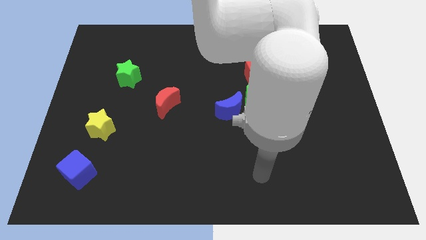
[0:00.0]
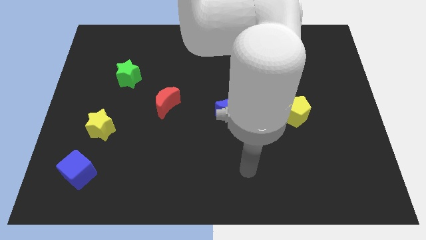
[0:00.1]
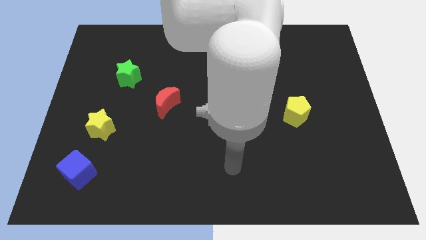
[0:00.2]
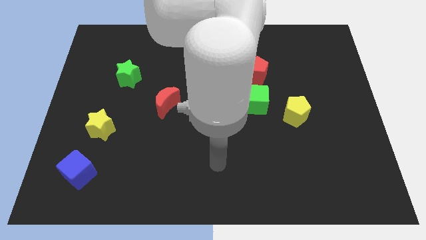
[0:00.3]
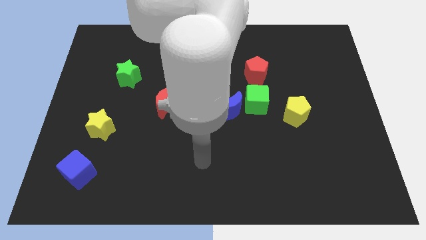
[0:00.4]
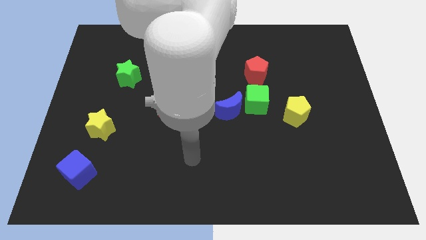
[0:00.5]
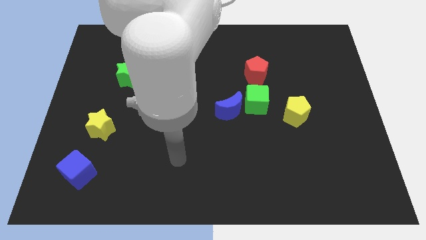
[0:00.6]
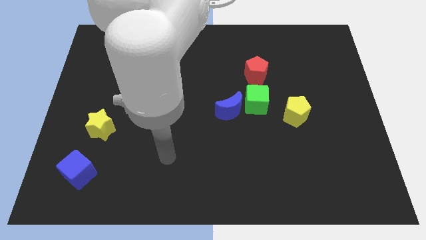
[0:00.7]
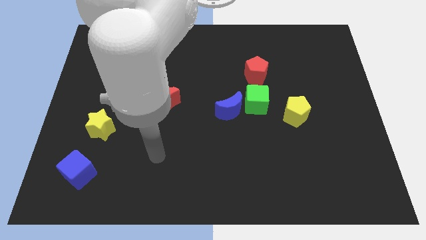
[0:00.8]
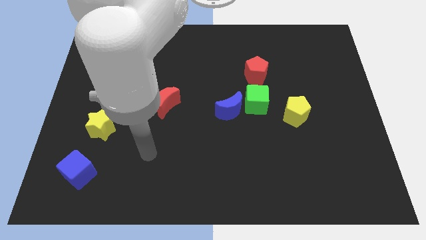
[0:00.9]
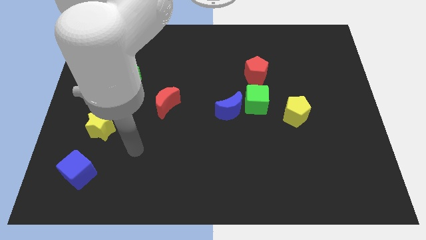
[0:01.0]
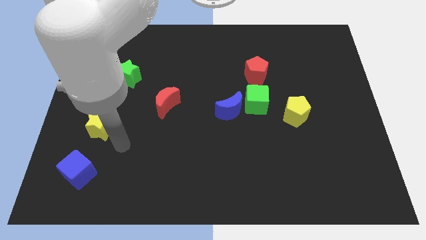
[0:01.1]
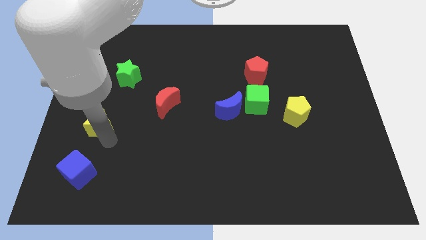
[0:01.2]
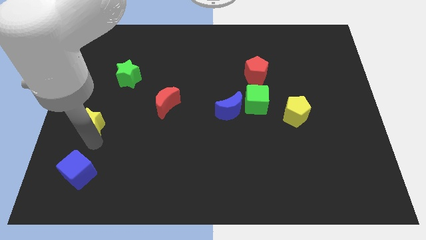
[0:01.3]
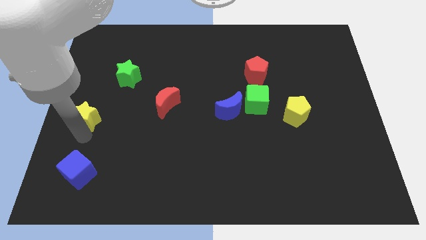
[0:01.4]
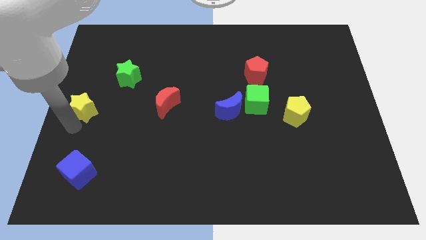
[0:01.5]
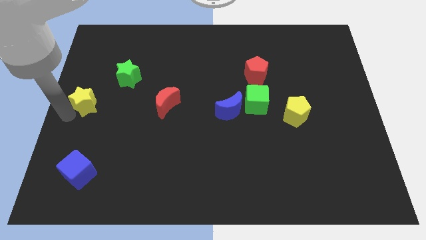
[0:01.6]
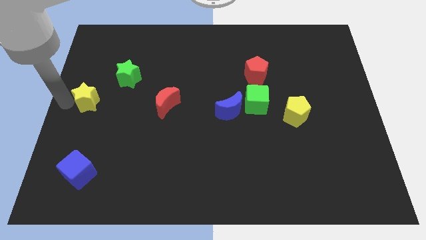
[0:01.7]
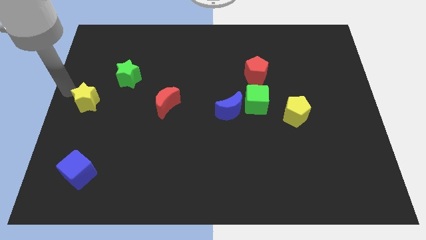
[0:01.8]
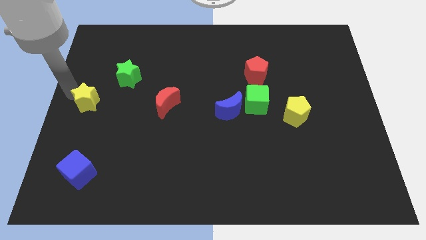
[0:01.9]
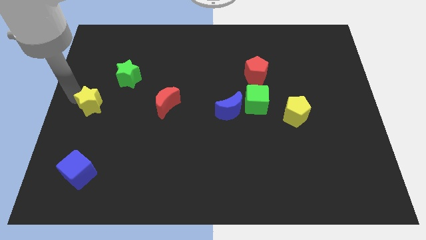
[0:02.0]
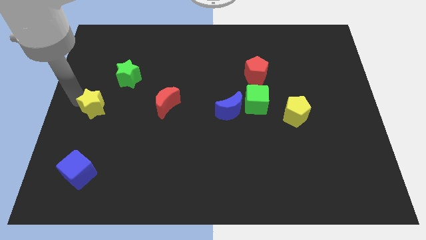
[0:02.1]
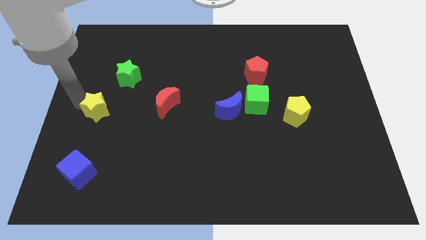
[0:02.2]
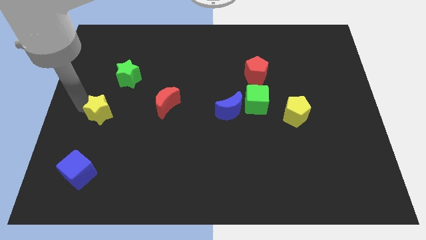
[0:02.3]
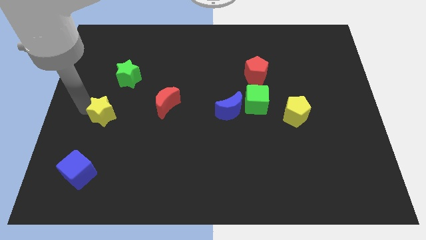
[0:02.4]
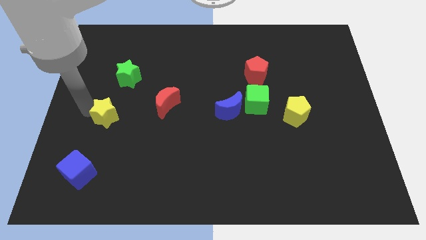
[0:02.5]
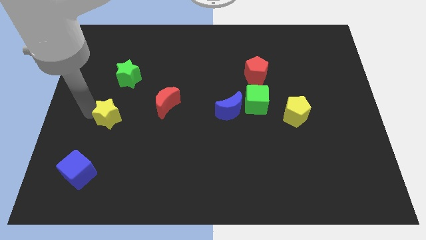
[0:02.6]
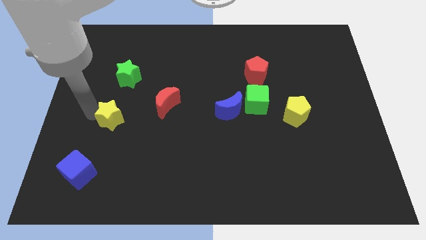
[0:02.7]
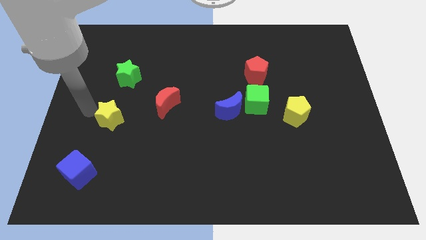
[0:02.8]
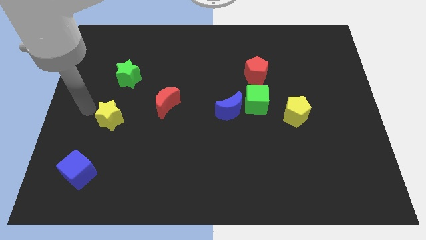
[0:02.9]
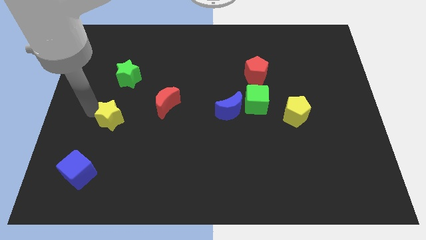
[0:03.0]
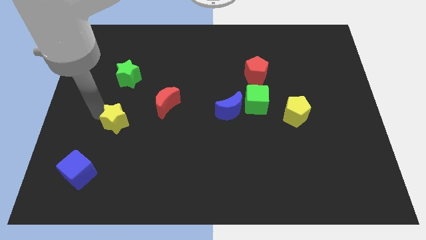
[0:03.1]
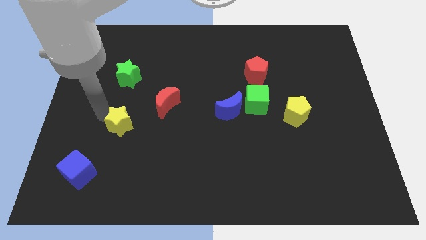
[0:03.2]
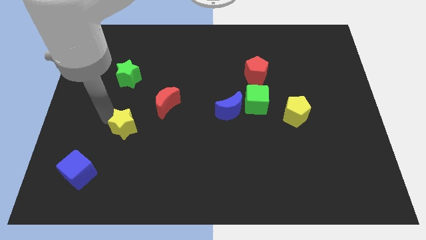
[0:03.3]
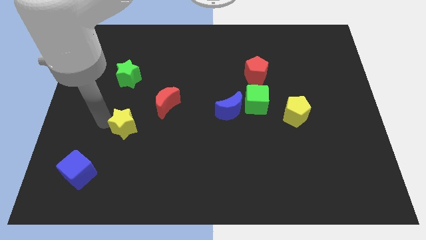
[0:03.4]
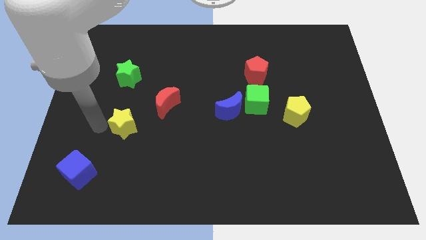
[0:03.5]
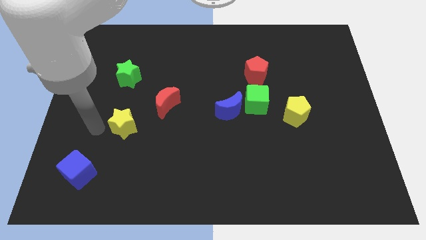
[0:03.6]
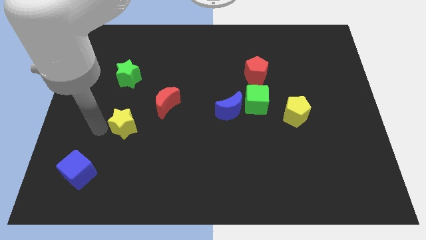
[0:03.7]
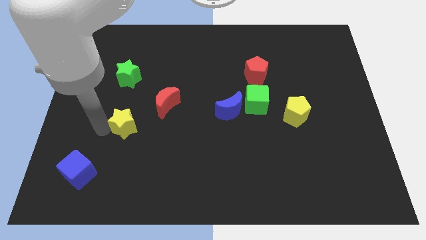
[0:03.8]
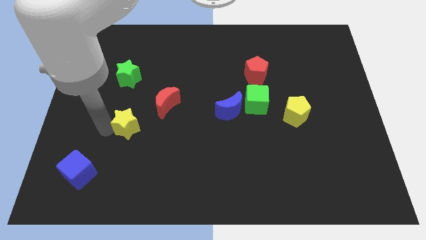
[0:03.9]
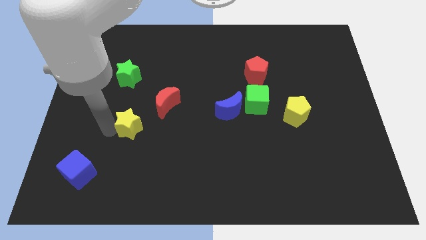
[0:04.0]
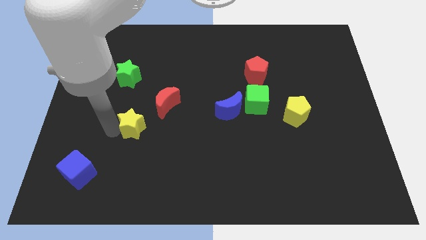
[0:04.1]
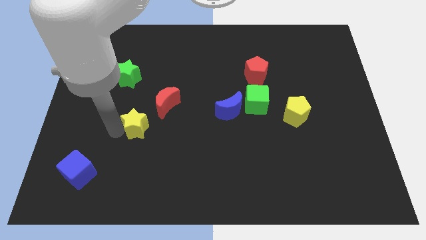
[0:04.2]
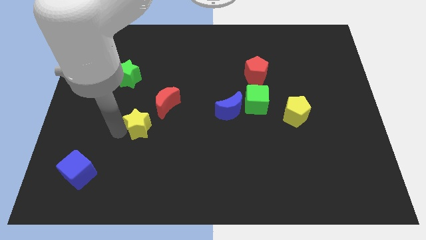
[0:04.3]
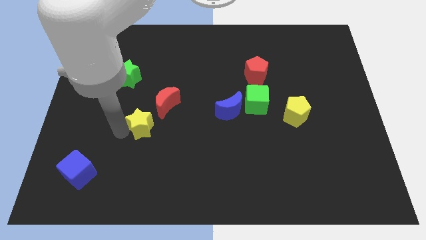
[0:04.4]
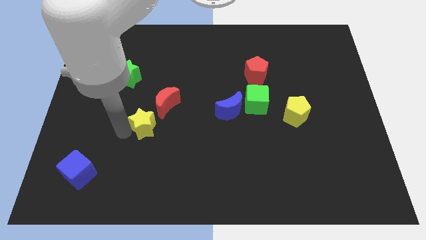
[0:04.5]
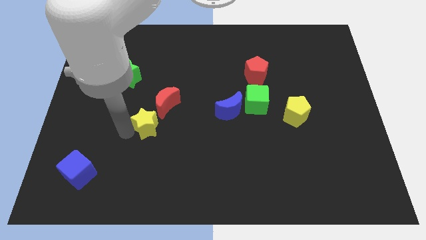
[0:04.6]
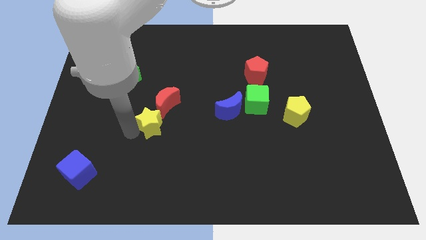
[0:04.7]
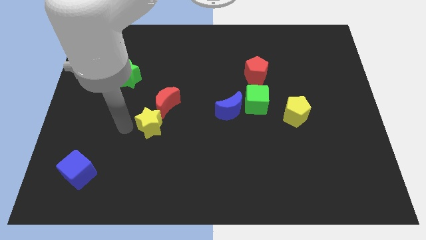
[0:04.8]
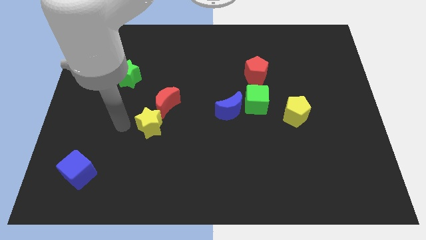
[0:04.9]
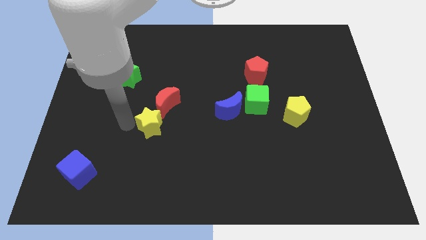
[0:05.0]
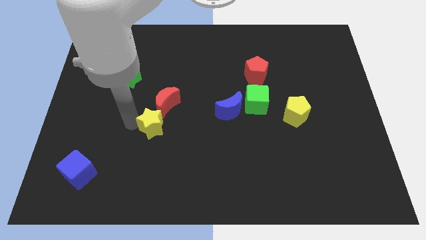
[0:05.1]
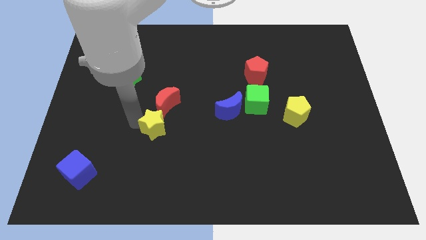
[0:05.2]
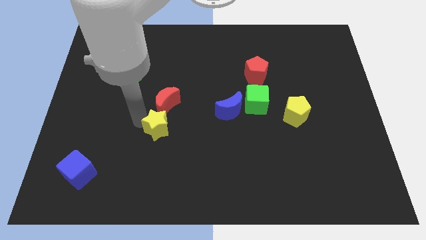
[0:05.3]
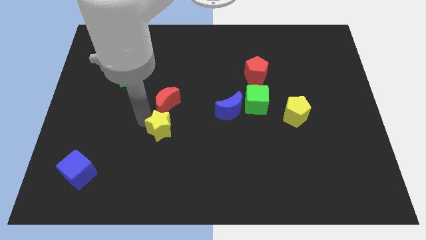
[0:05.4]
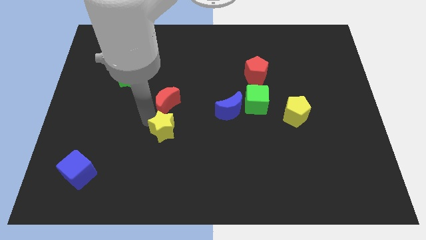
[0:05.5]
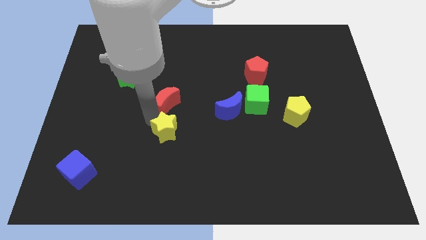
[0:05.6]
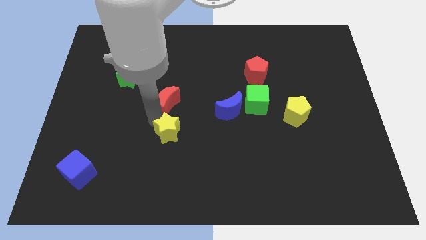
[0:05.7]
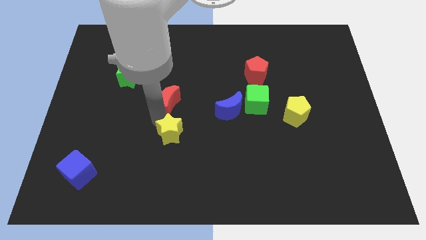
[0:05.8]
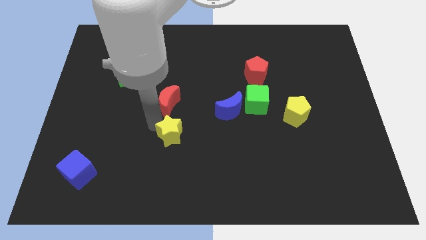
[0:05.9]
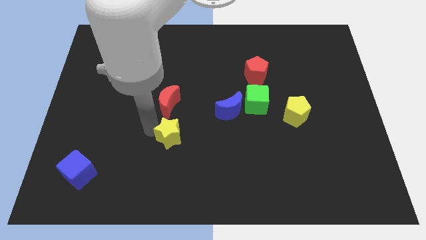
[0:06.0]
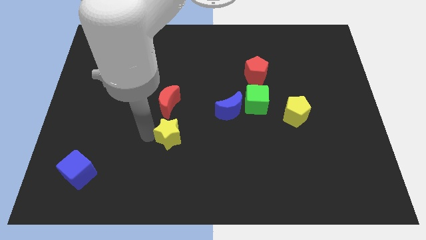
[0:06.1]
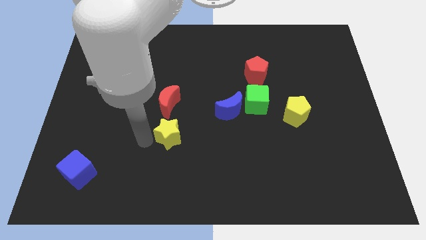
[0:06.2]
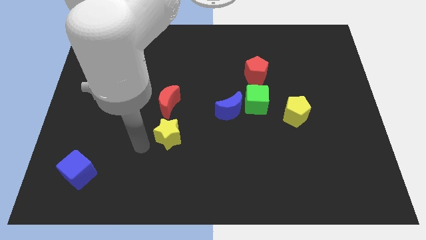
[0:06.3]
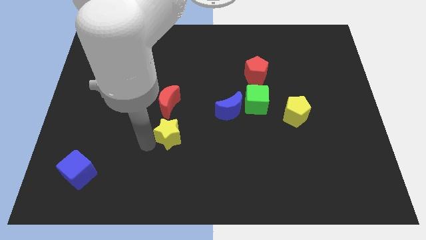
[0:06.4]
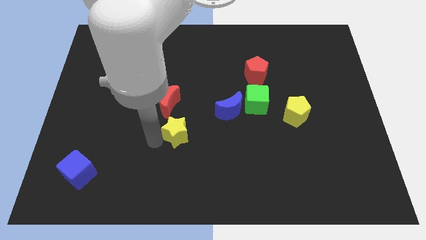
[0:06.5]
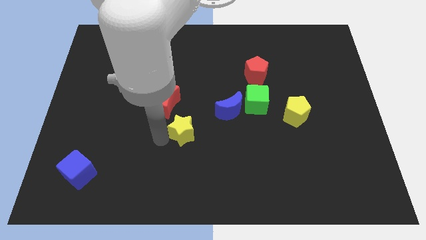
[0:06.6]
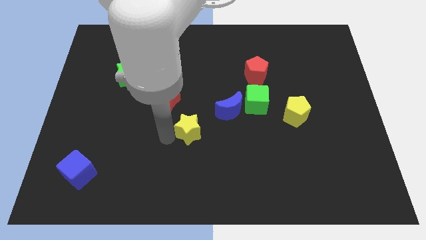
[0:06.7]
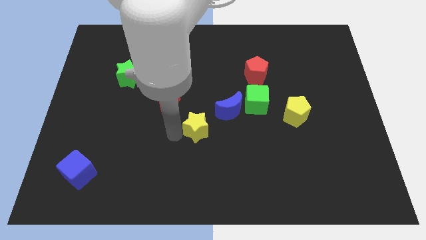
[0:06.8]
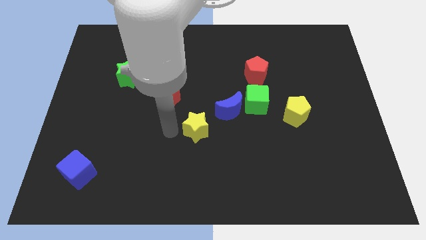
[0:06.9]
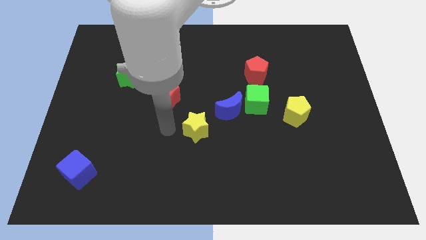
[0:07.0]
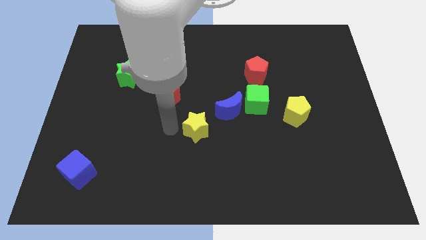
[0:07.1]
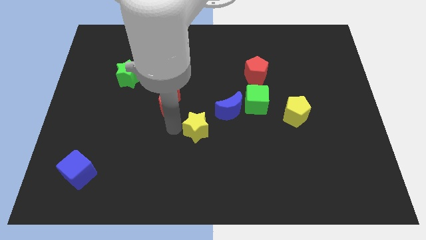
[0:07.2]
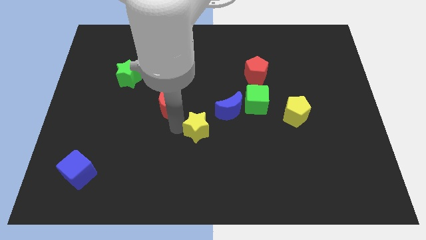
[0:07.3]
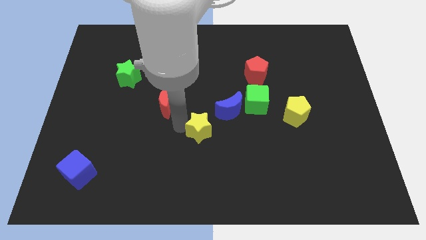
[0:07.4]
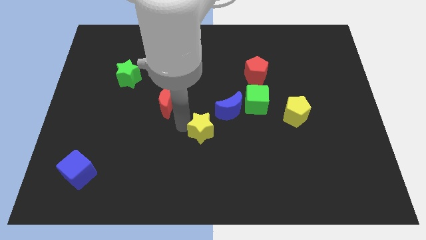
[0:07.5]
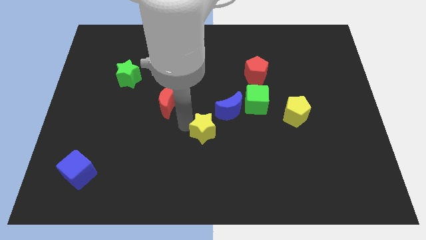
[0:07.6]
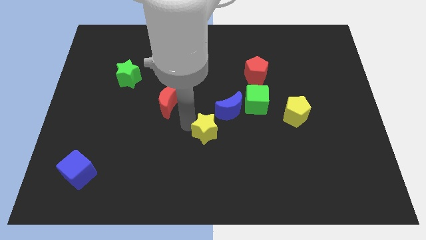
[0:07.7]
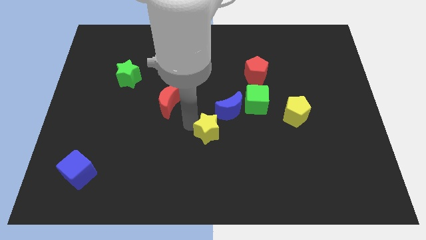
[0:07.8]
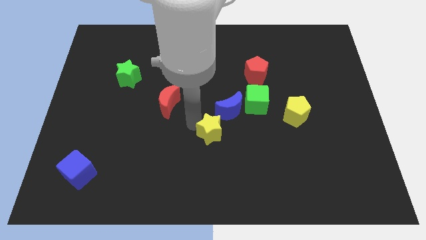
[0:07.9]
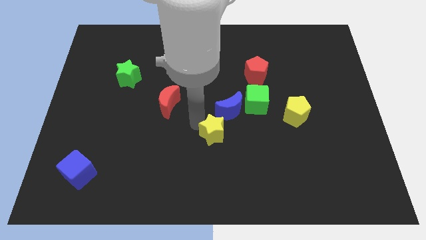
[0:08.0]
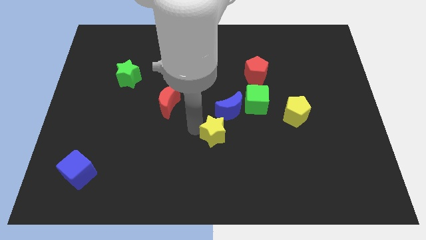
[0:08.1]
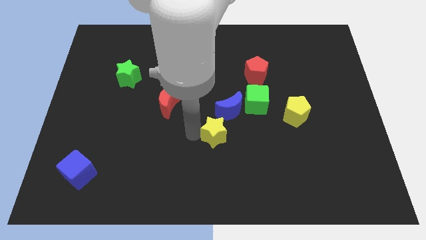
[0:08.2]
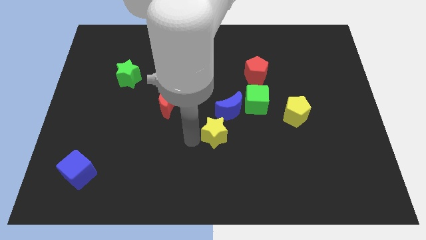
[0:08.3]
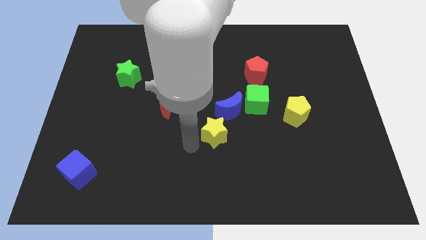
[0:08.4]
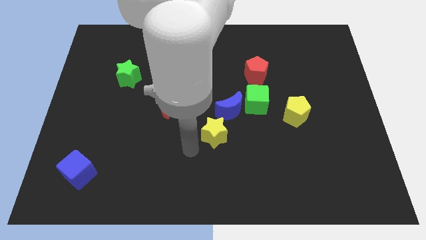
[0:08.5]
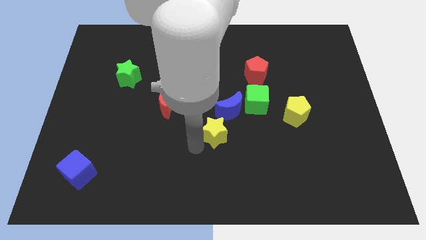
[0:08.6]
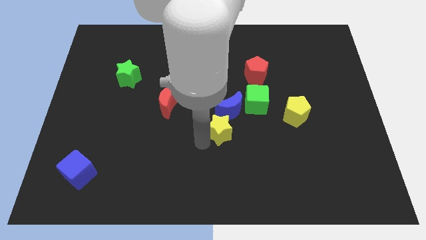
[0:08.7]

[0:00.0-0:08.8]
slide the yellow star to the bottom left side of the green cube
